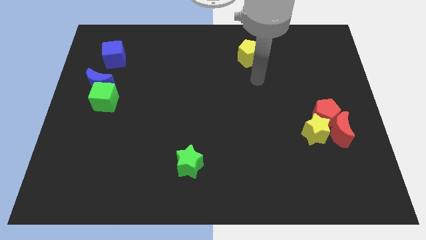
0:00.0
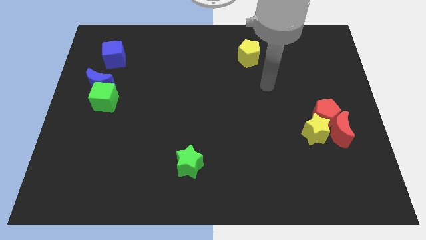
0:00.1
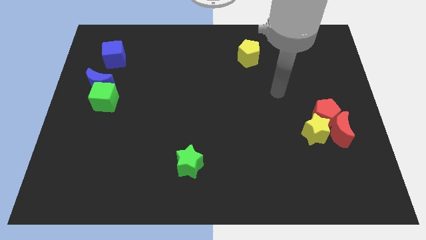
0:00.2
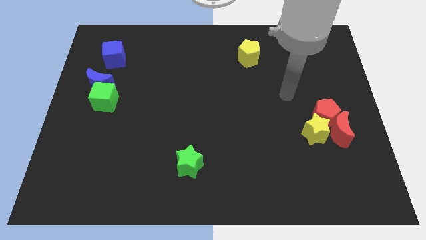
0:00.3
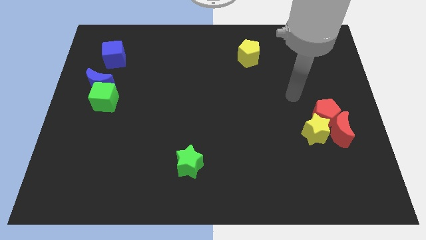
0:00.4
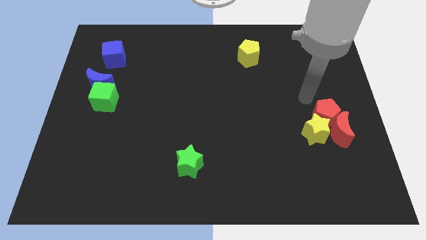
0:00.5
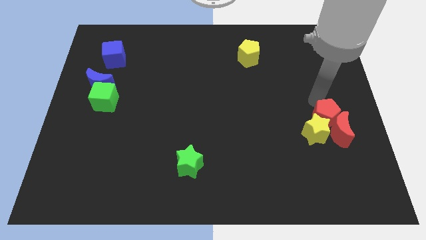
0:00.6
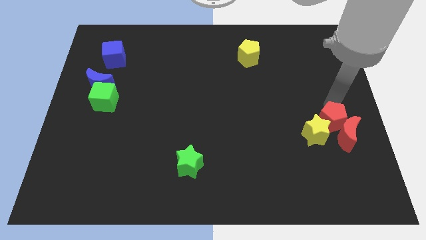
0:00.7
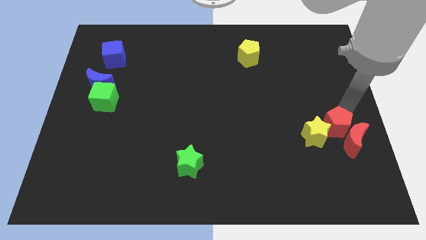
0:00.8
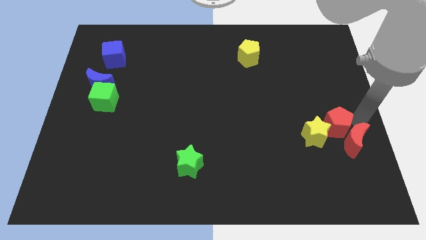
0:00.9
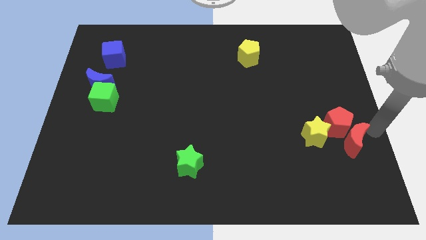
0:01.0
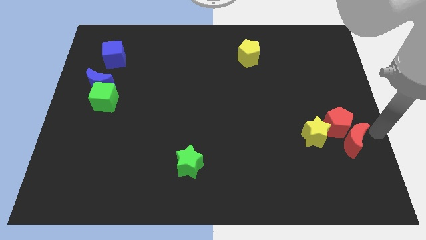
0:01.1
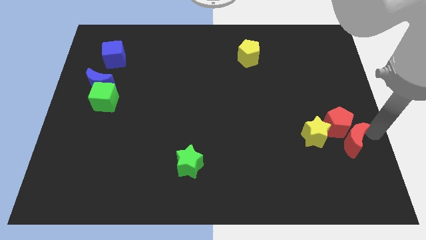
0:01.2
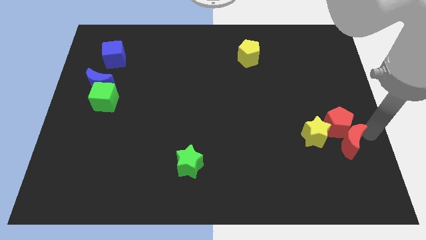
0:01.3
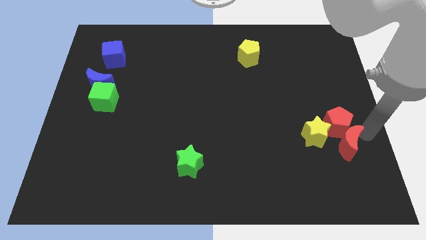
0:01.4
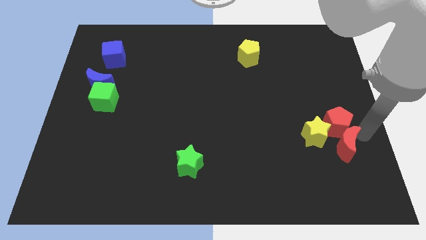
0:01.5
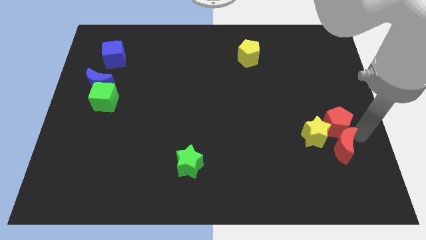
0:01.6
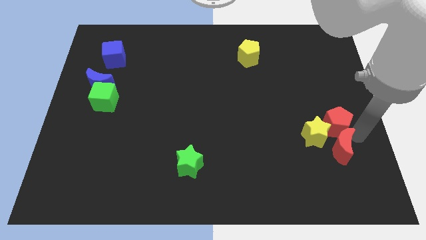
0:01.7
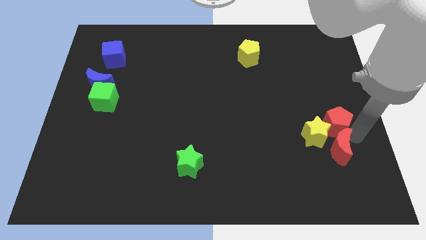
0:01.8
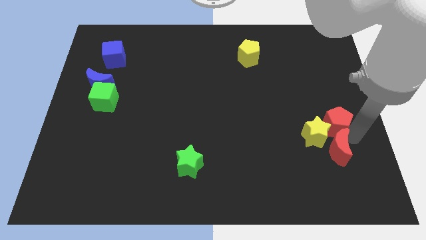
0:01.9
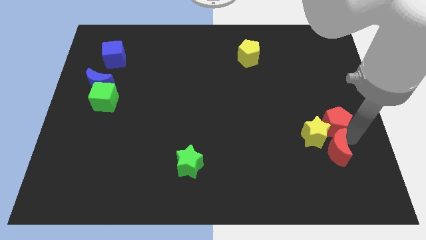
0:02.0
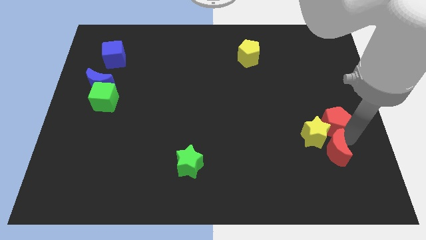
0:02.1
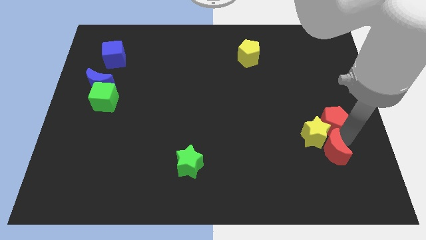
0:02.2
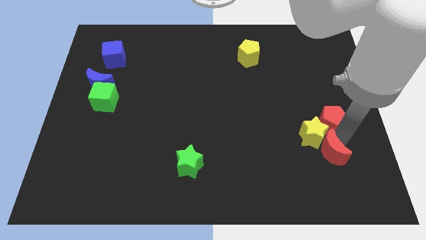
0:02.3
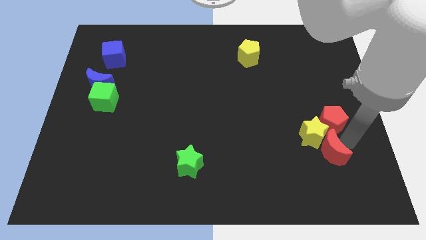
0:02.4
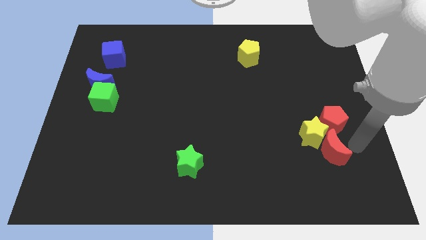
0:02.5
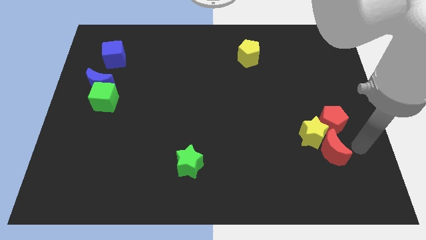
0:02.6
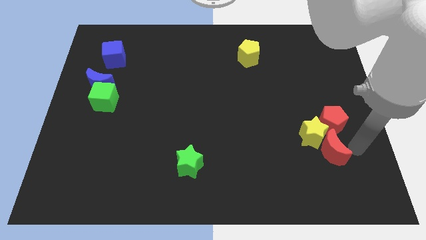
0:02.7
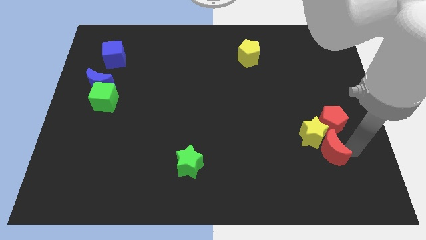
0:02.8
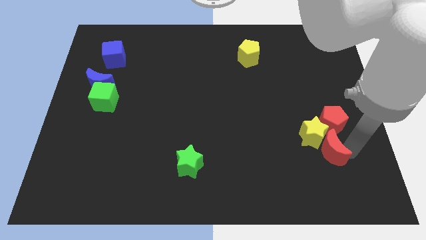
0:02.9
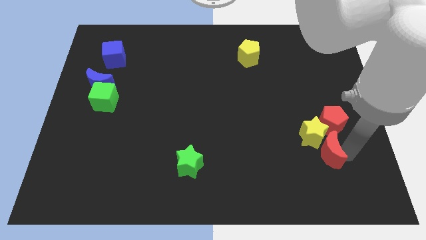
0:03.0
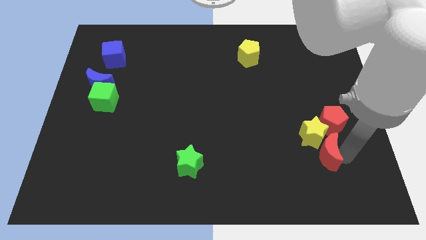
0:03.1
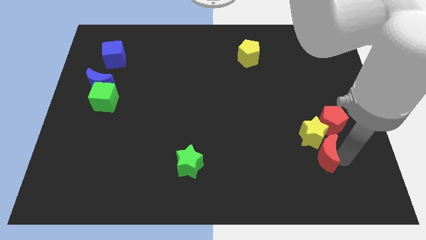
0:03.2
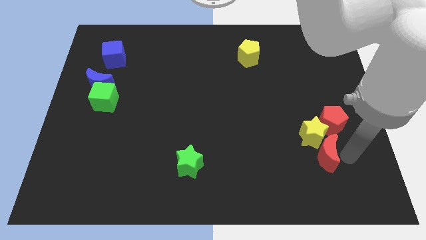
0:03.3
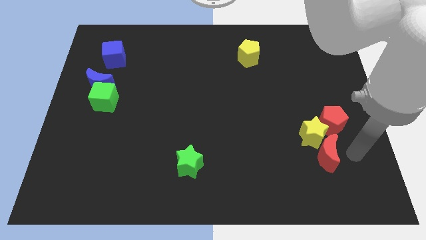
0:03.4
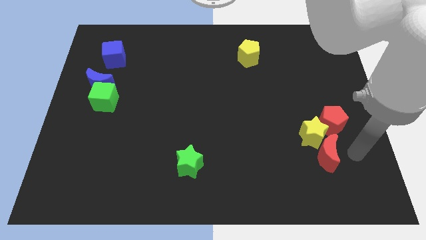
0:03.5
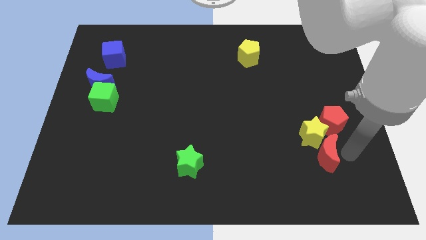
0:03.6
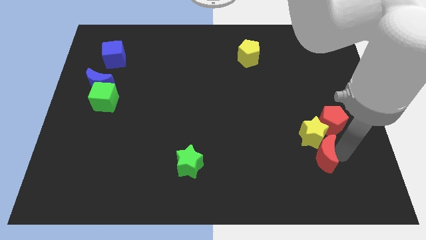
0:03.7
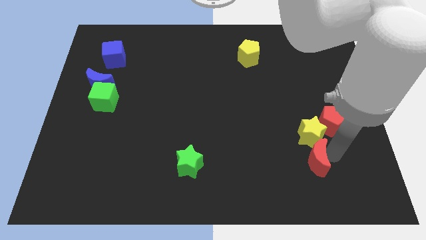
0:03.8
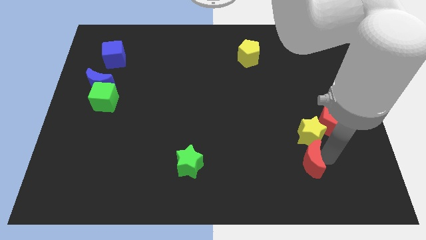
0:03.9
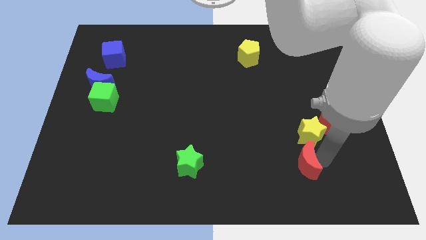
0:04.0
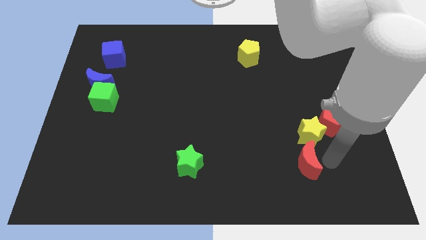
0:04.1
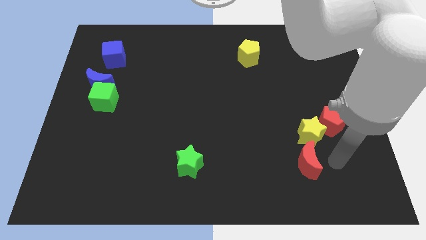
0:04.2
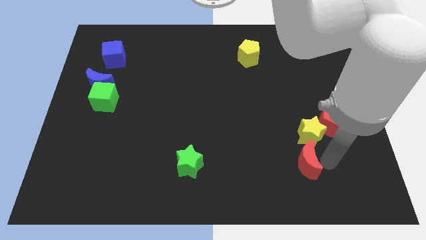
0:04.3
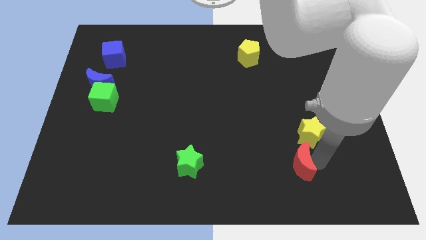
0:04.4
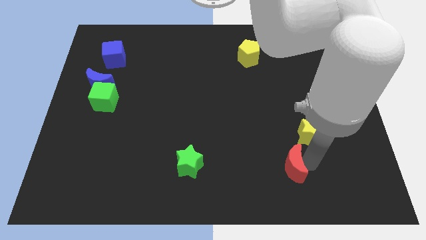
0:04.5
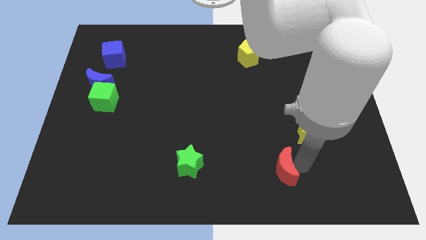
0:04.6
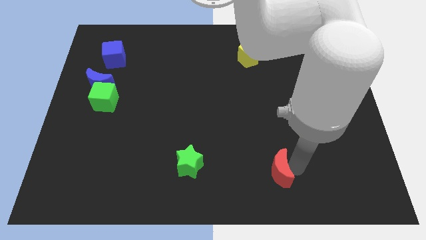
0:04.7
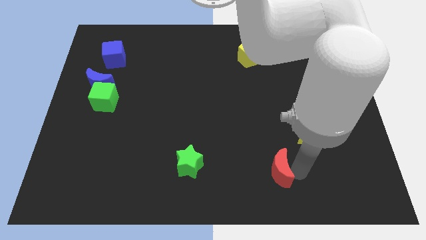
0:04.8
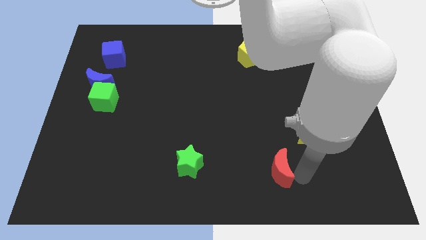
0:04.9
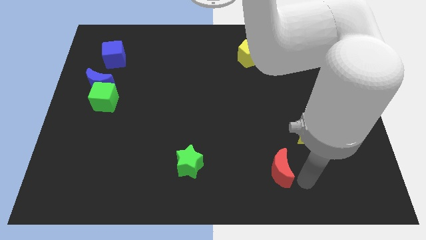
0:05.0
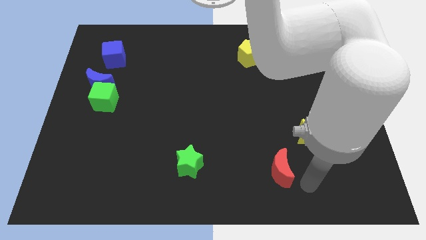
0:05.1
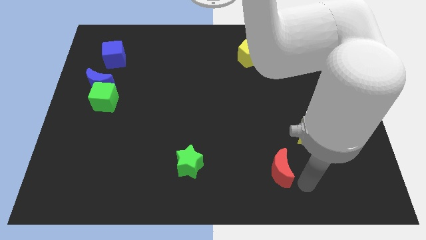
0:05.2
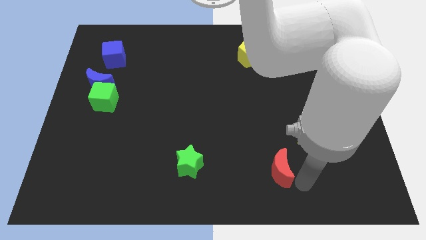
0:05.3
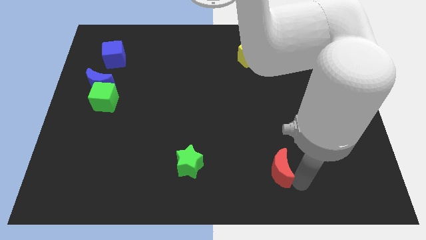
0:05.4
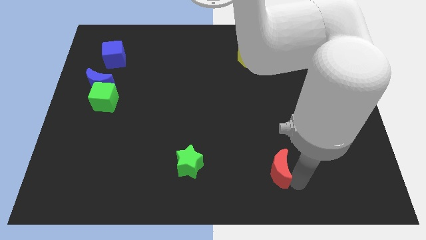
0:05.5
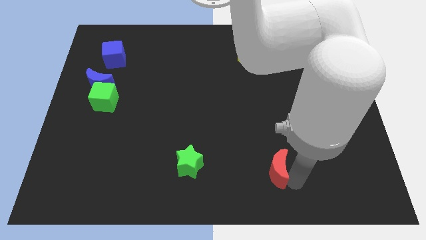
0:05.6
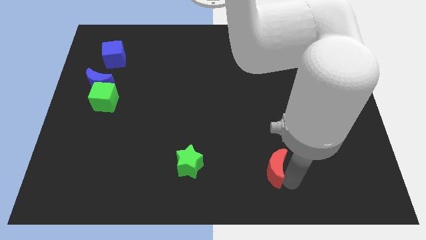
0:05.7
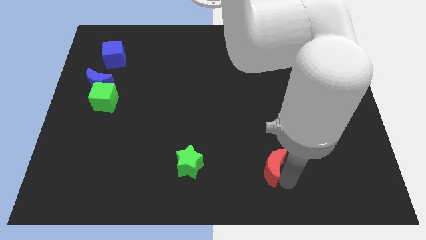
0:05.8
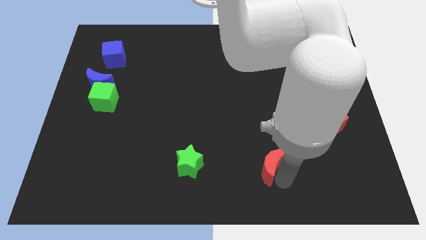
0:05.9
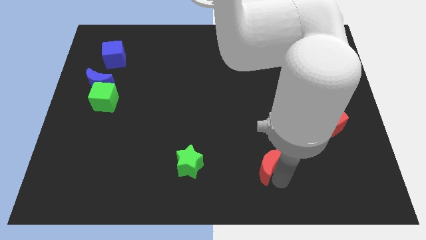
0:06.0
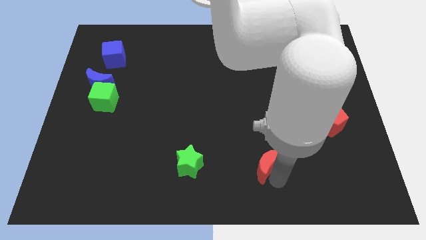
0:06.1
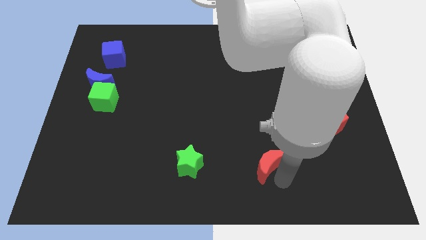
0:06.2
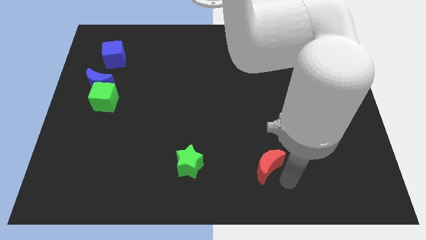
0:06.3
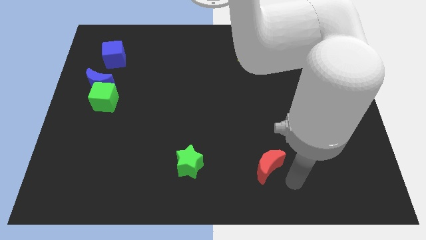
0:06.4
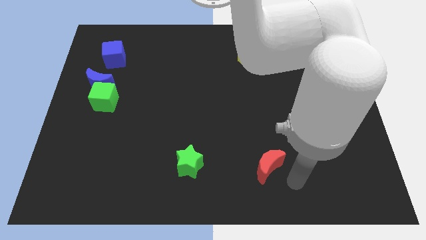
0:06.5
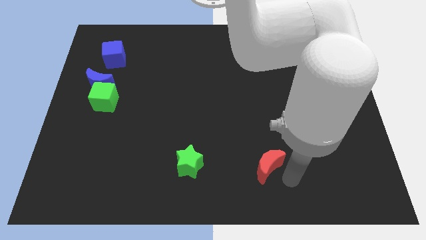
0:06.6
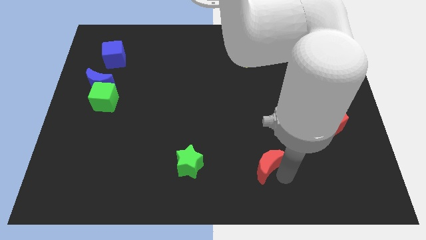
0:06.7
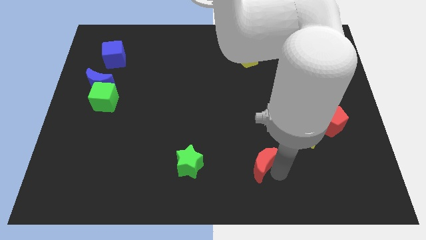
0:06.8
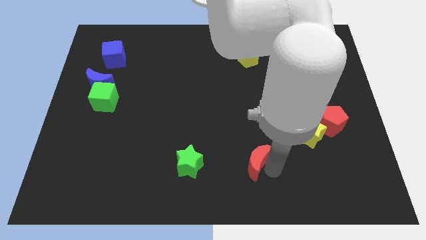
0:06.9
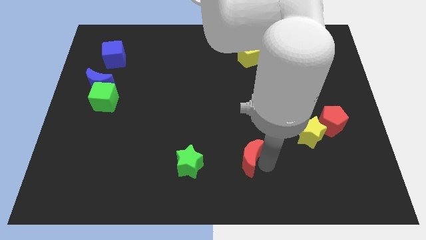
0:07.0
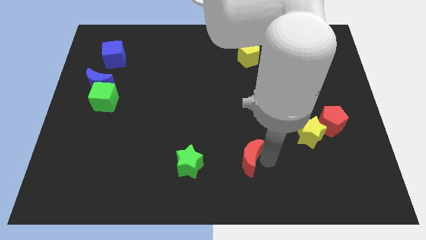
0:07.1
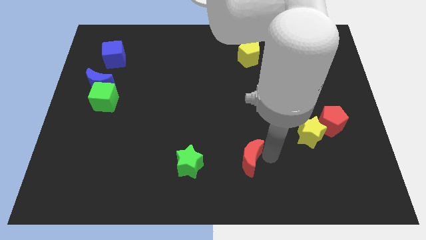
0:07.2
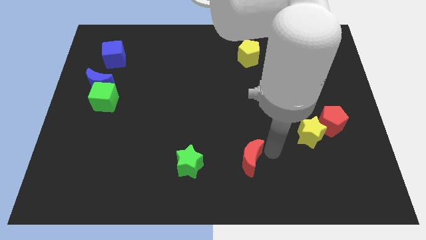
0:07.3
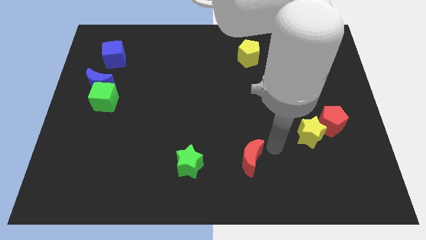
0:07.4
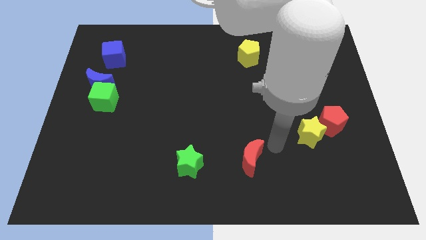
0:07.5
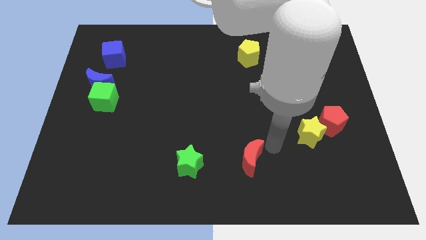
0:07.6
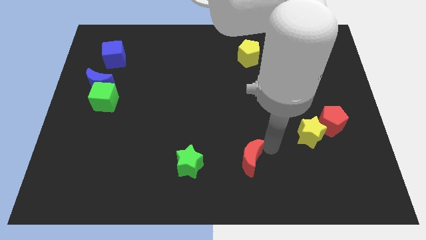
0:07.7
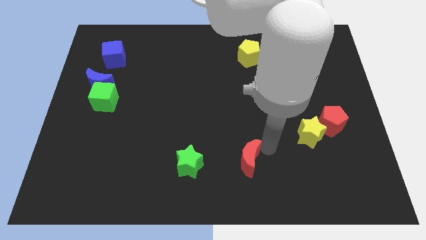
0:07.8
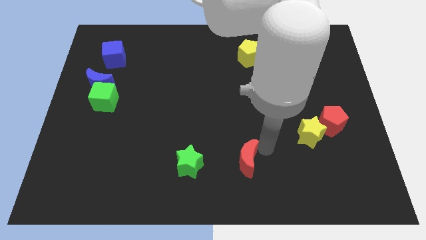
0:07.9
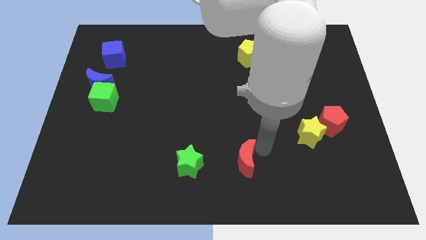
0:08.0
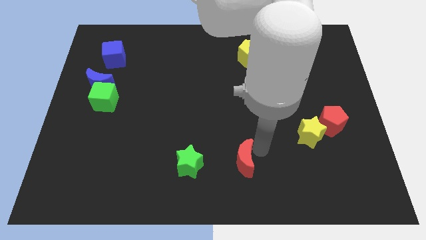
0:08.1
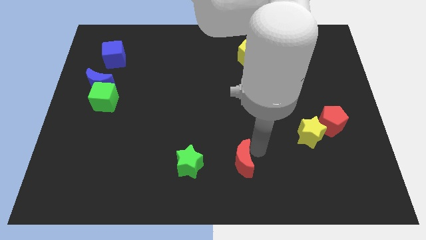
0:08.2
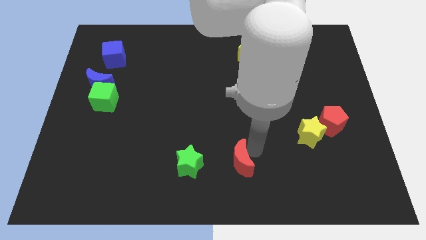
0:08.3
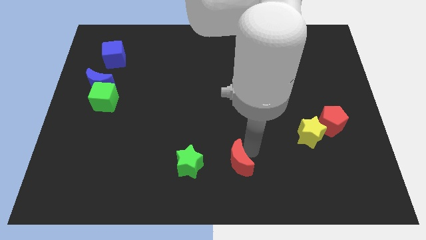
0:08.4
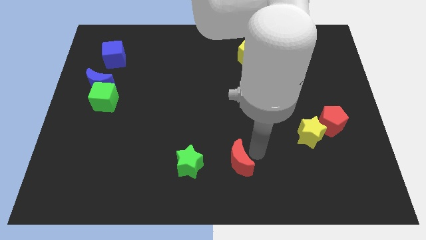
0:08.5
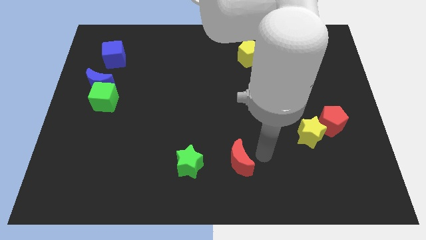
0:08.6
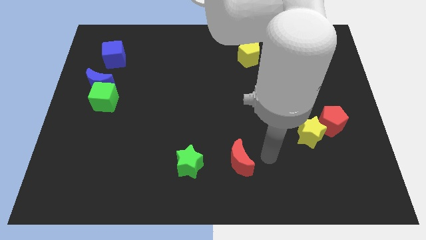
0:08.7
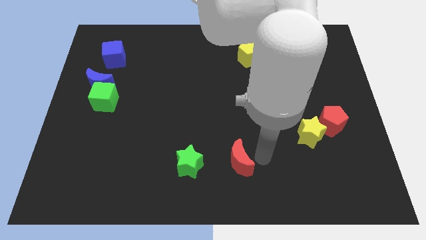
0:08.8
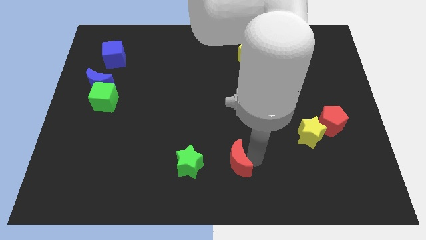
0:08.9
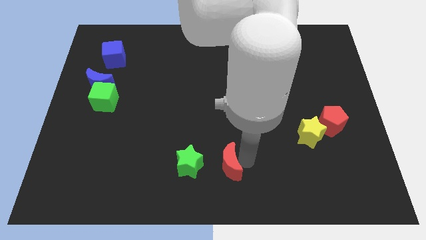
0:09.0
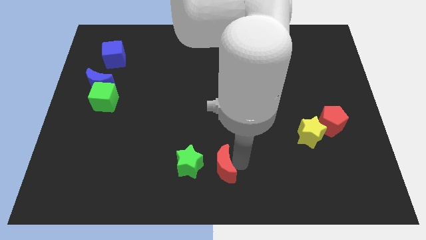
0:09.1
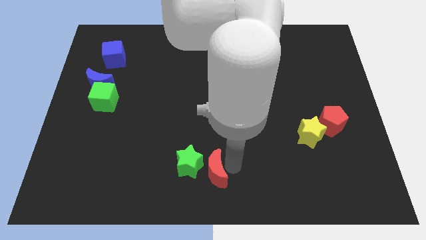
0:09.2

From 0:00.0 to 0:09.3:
slide the red moon next to the green star
